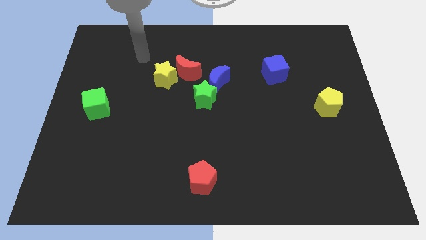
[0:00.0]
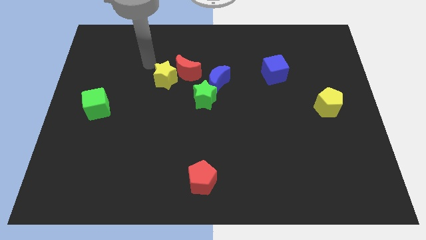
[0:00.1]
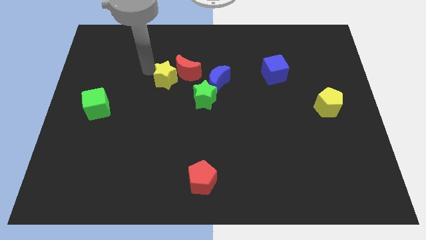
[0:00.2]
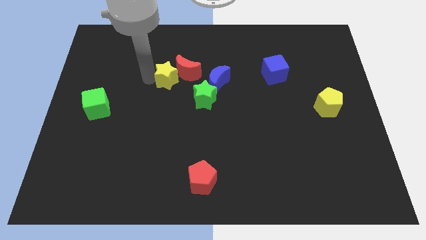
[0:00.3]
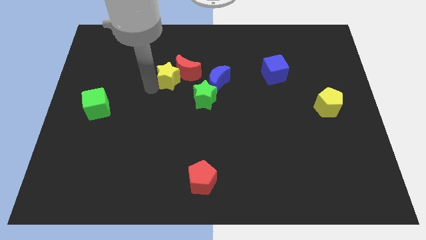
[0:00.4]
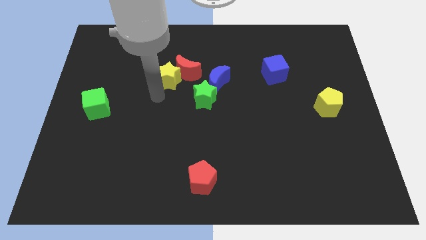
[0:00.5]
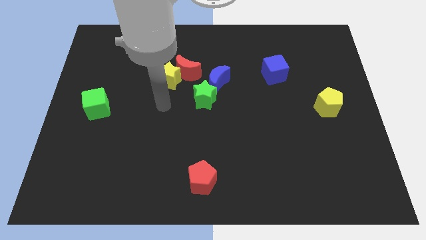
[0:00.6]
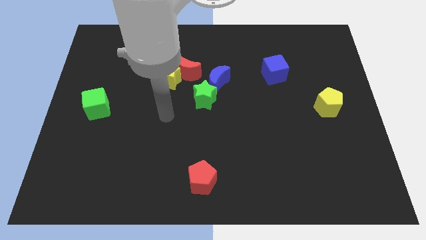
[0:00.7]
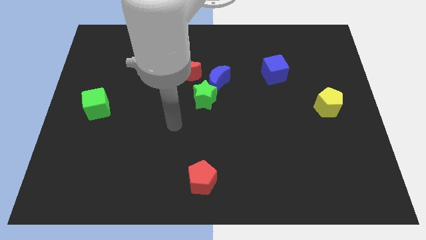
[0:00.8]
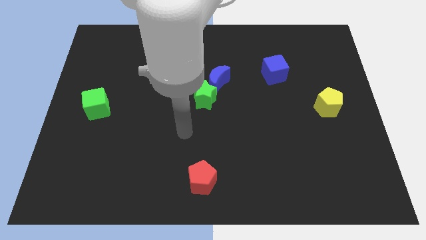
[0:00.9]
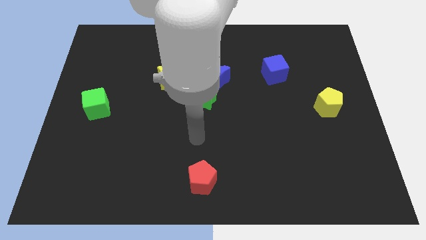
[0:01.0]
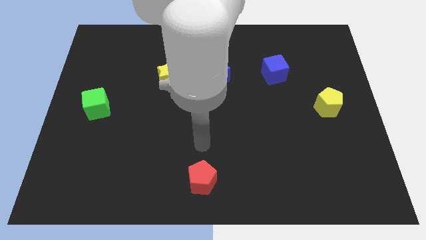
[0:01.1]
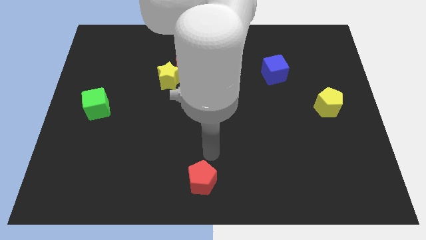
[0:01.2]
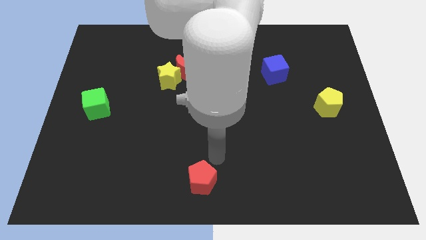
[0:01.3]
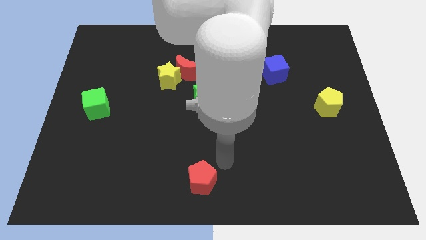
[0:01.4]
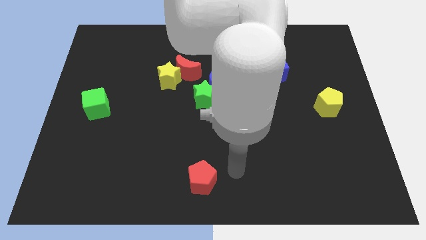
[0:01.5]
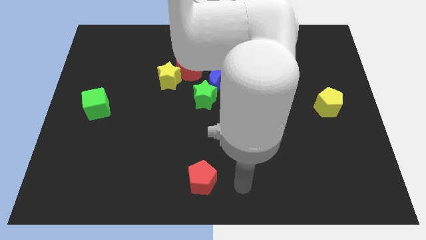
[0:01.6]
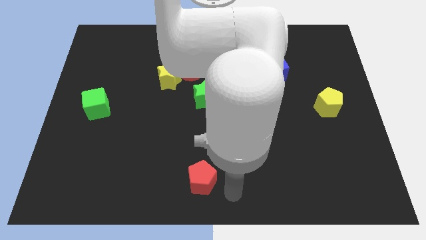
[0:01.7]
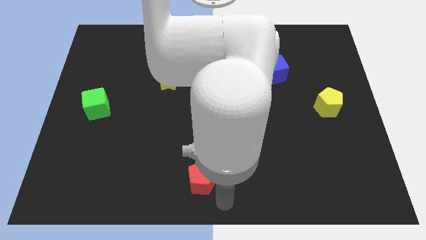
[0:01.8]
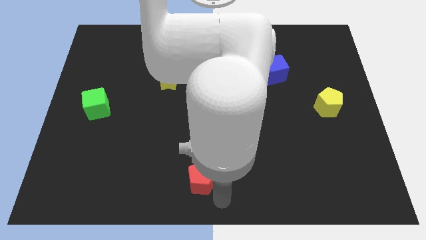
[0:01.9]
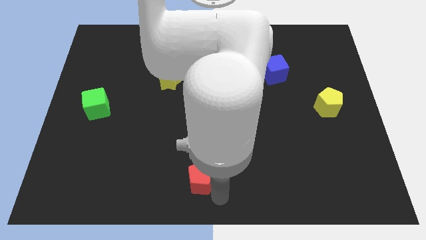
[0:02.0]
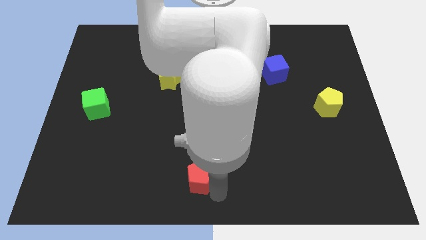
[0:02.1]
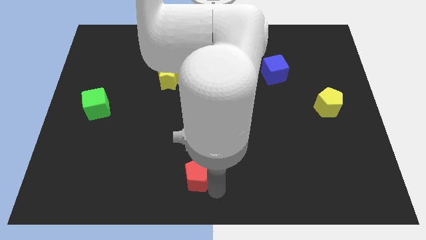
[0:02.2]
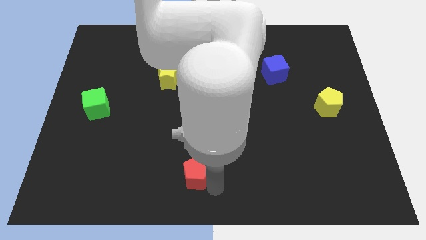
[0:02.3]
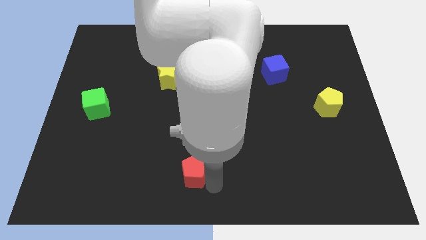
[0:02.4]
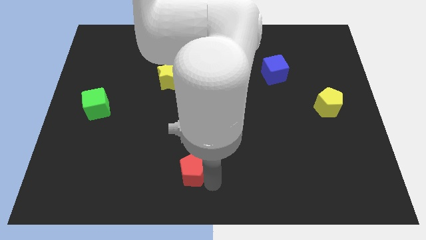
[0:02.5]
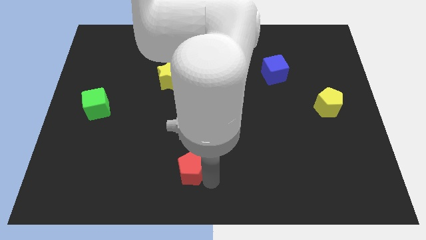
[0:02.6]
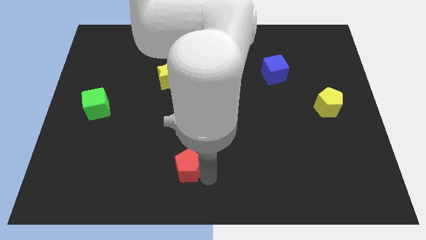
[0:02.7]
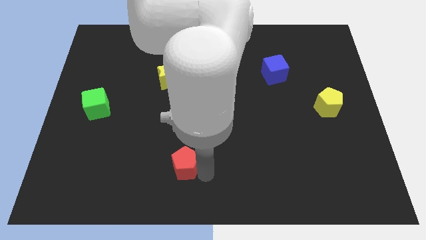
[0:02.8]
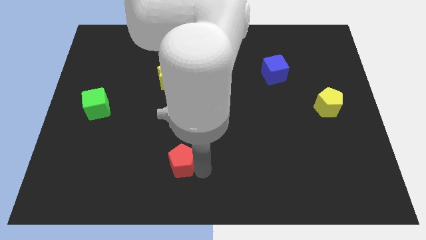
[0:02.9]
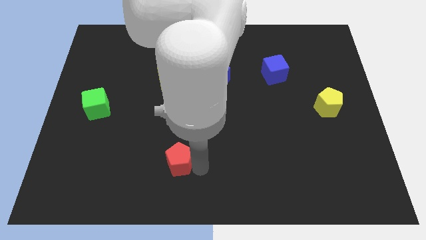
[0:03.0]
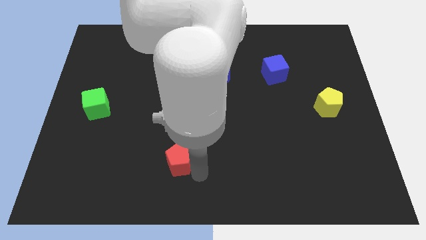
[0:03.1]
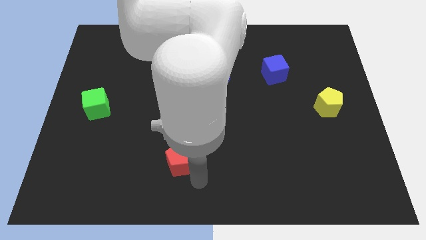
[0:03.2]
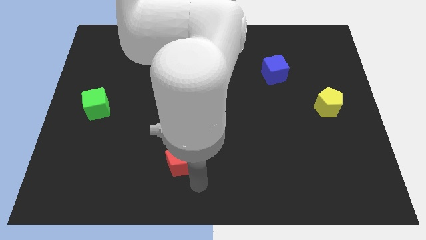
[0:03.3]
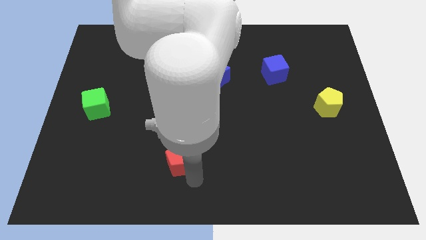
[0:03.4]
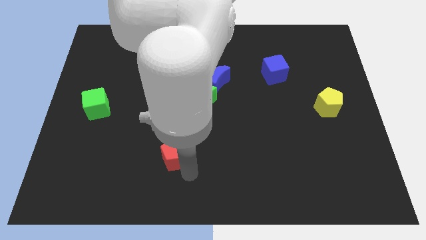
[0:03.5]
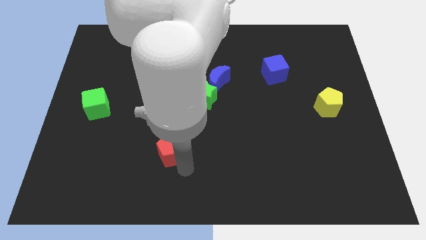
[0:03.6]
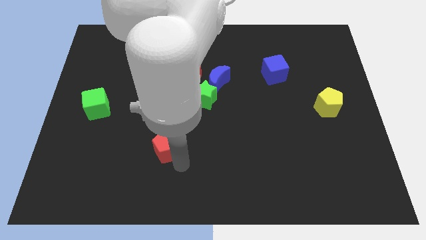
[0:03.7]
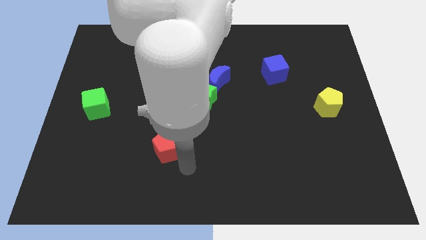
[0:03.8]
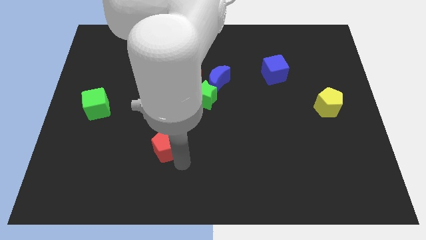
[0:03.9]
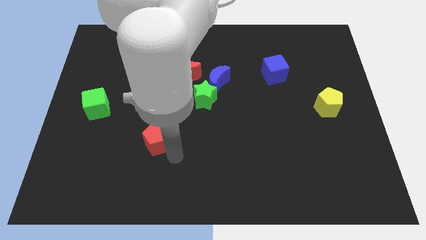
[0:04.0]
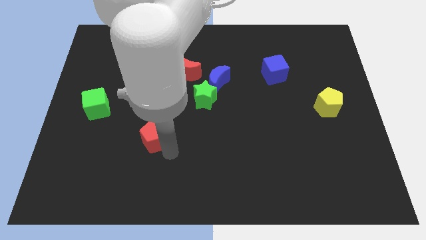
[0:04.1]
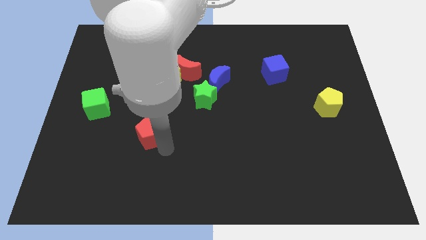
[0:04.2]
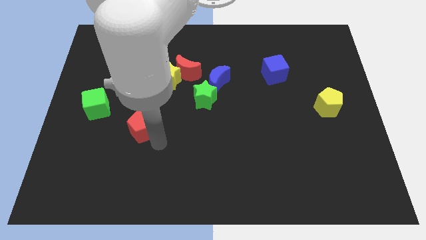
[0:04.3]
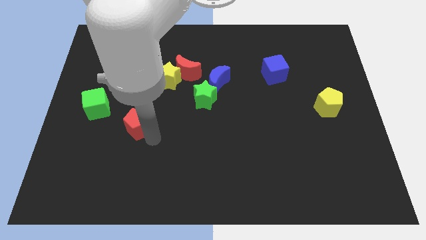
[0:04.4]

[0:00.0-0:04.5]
slide the red pentagon up and then to the left

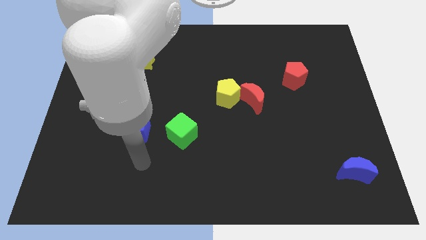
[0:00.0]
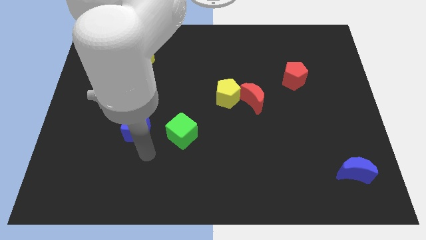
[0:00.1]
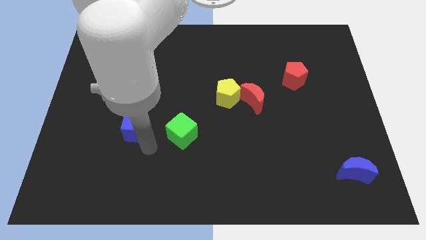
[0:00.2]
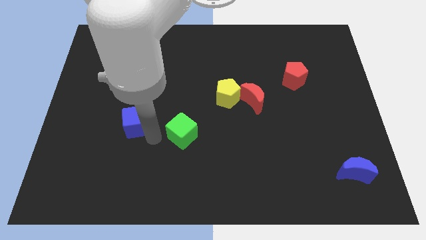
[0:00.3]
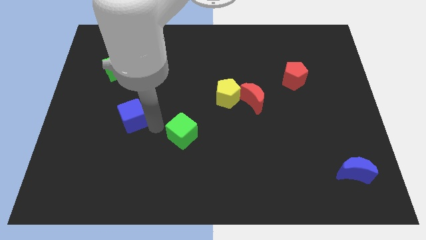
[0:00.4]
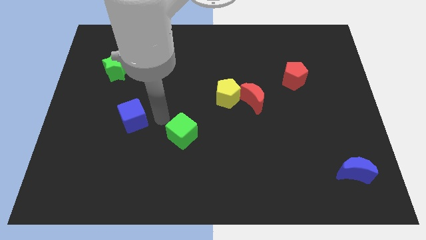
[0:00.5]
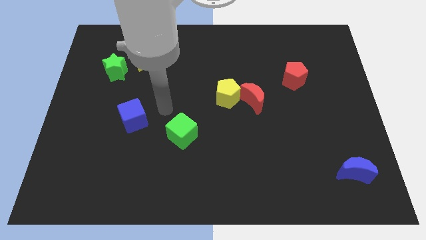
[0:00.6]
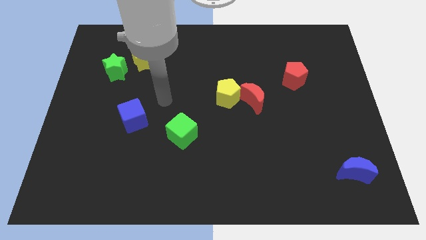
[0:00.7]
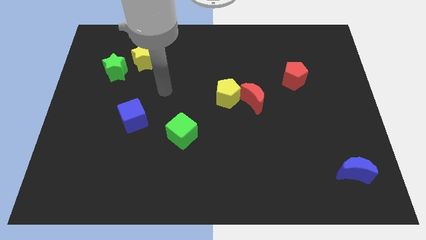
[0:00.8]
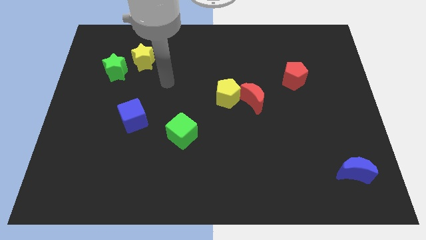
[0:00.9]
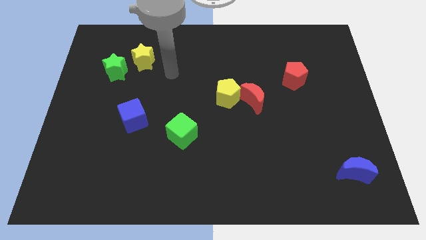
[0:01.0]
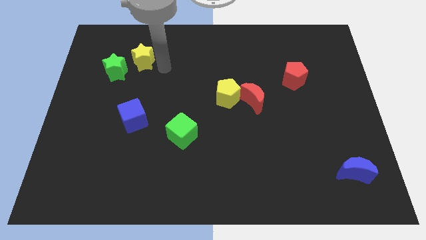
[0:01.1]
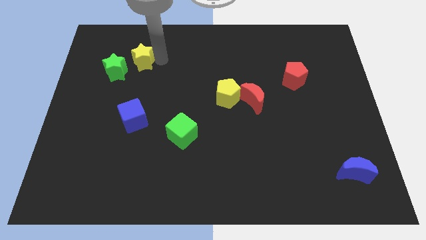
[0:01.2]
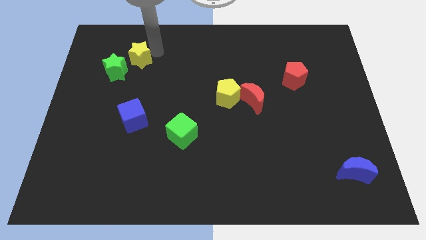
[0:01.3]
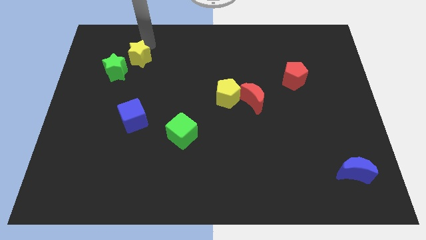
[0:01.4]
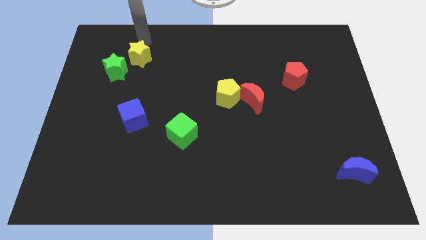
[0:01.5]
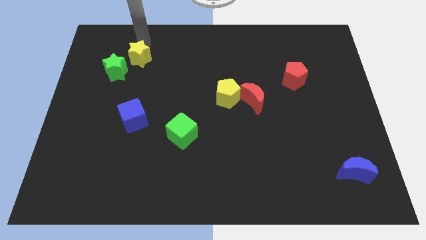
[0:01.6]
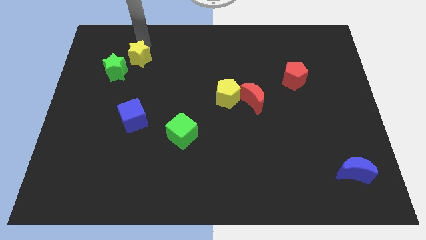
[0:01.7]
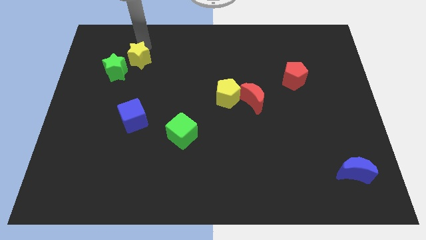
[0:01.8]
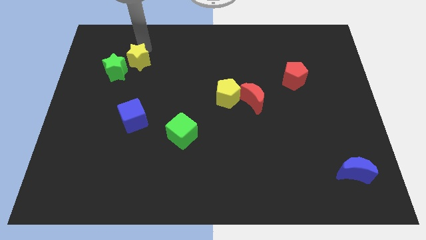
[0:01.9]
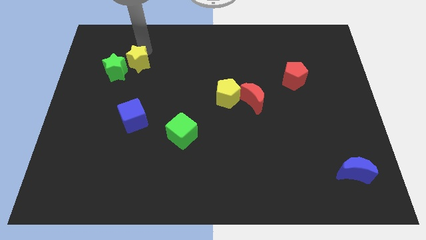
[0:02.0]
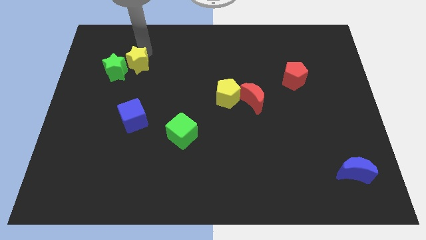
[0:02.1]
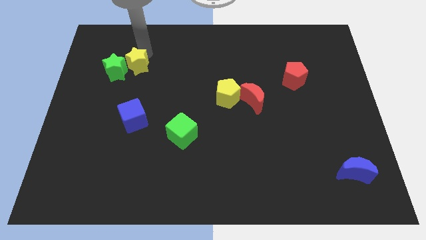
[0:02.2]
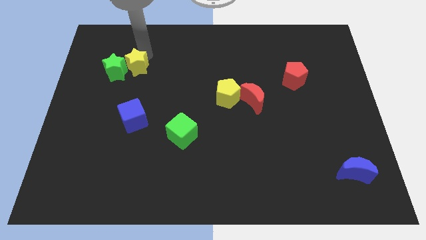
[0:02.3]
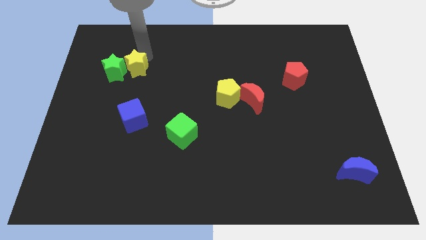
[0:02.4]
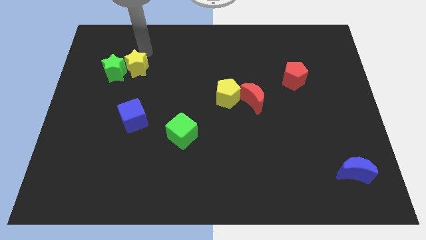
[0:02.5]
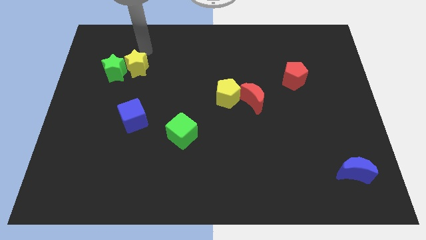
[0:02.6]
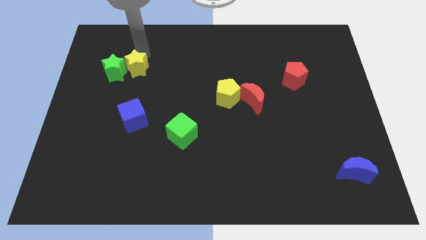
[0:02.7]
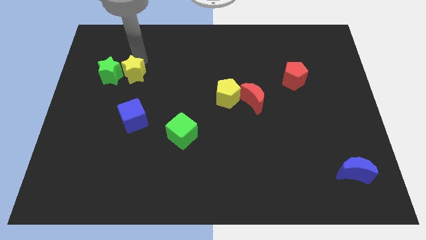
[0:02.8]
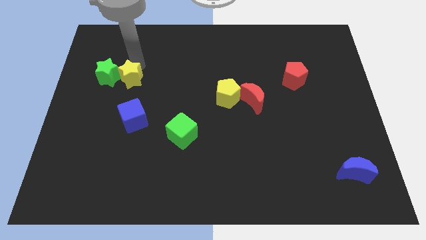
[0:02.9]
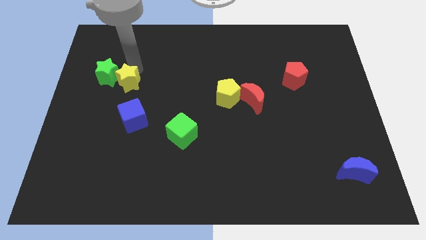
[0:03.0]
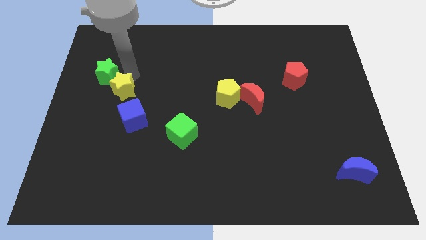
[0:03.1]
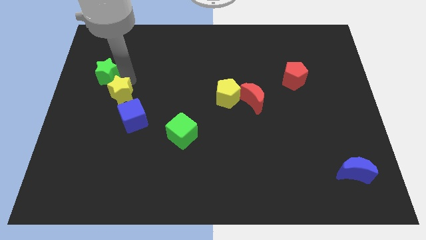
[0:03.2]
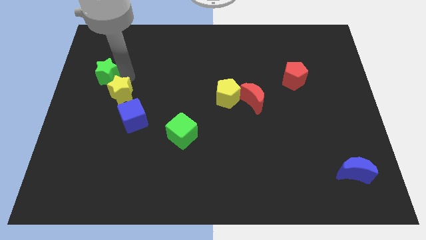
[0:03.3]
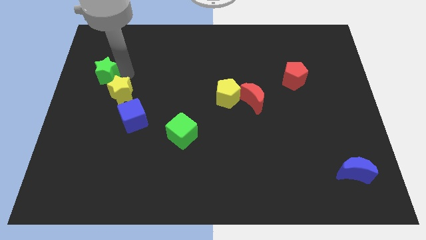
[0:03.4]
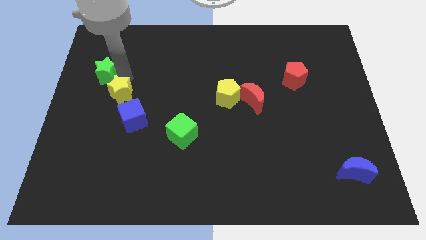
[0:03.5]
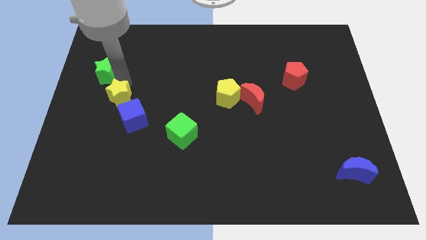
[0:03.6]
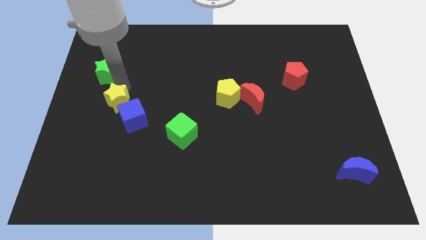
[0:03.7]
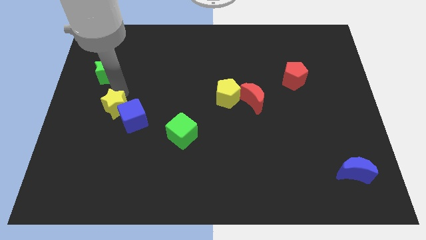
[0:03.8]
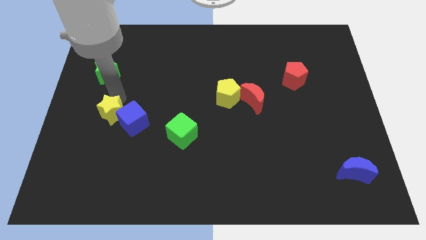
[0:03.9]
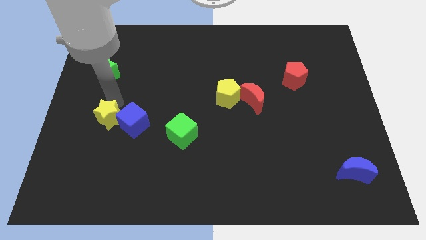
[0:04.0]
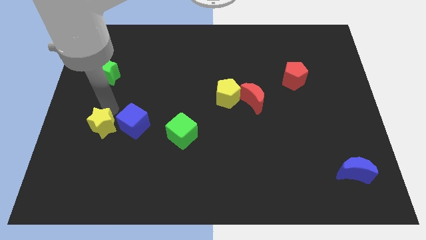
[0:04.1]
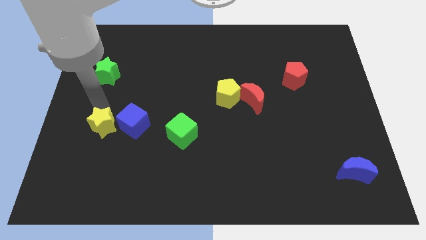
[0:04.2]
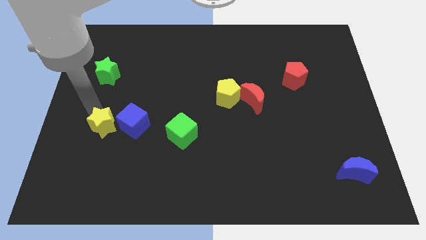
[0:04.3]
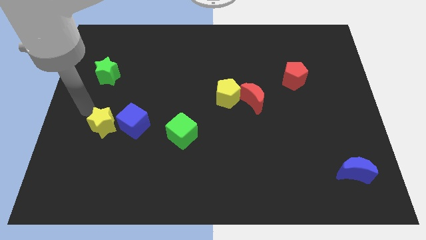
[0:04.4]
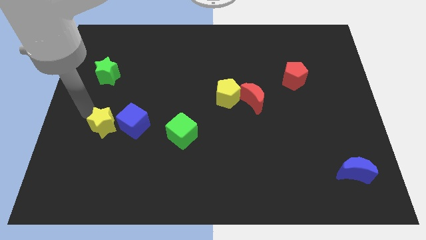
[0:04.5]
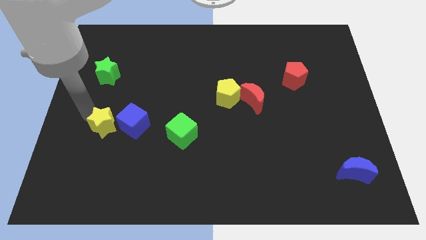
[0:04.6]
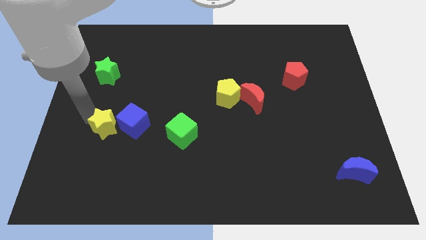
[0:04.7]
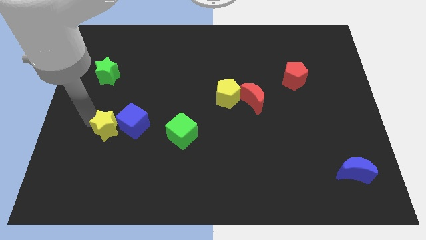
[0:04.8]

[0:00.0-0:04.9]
move the yellow star downwards
